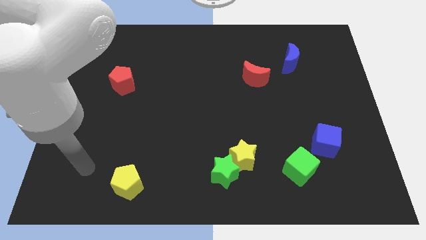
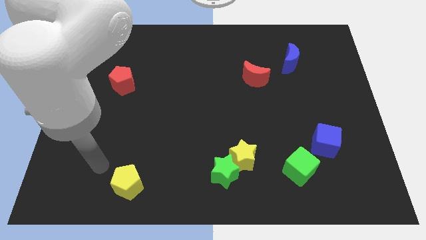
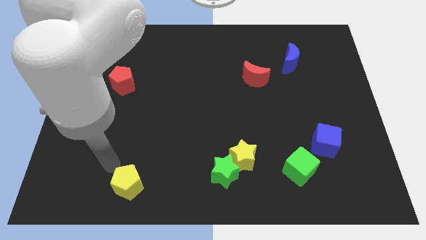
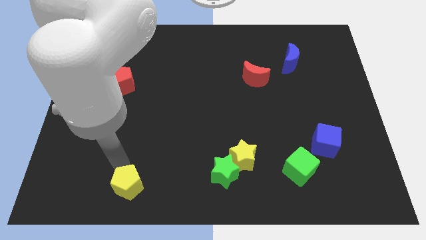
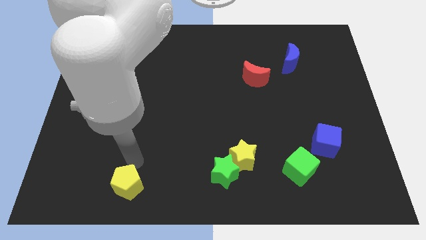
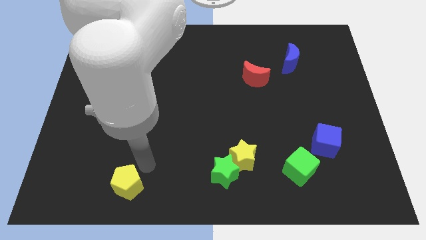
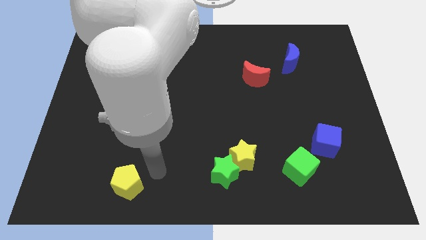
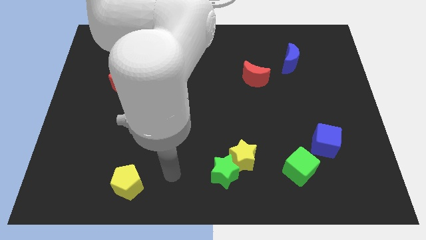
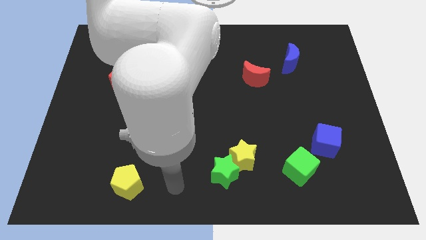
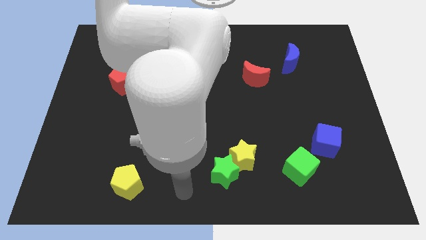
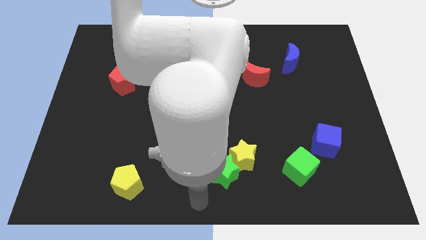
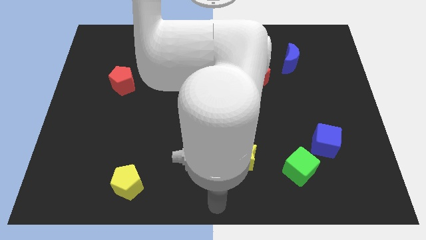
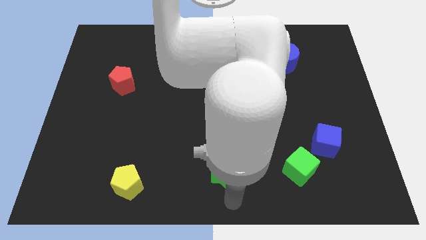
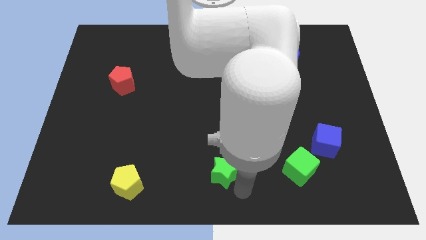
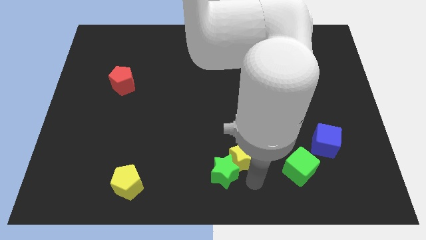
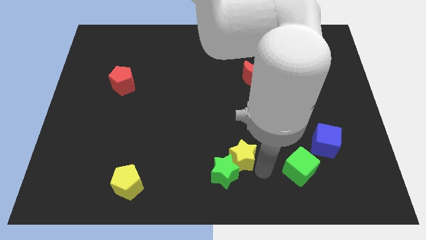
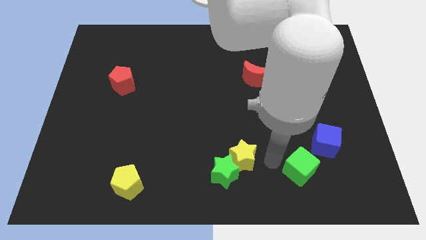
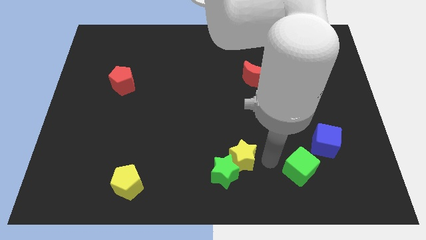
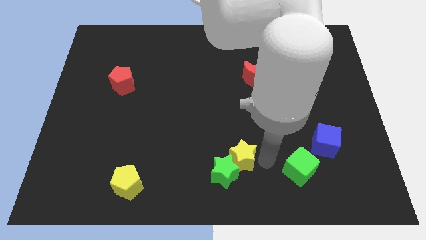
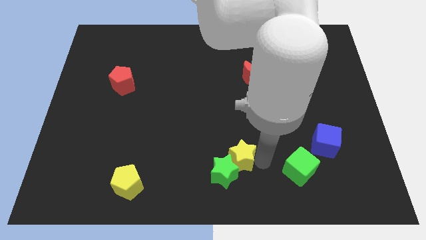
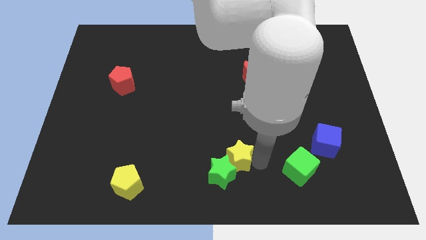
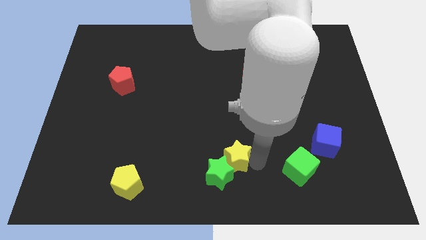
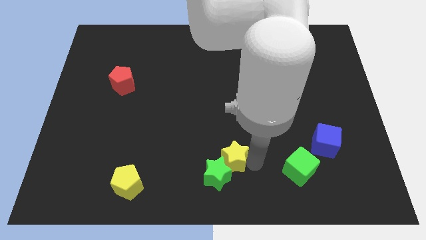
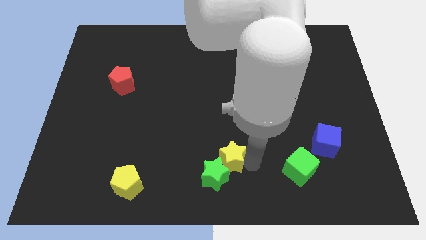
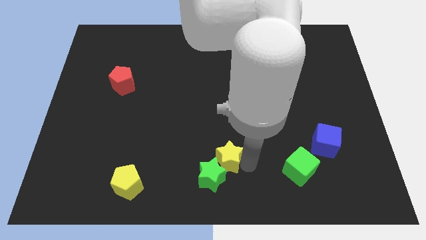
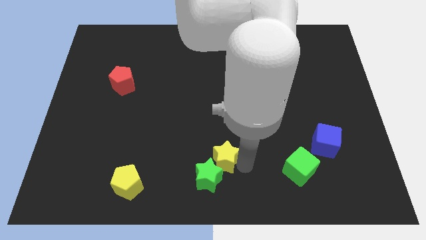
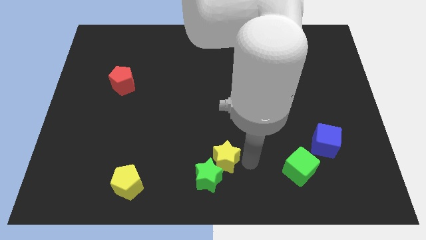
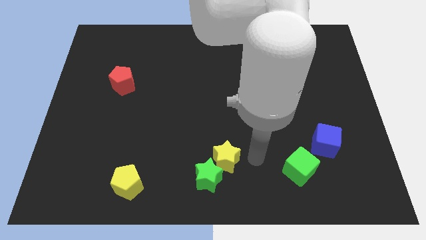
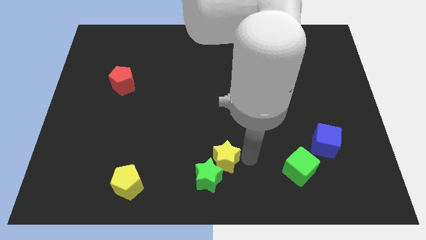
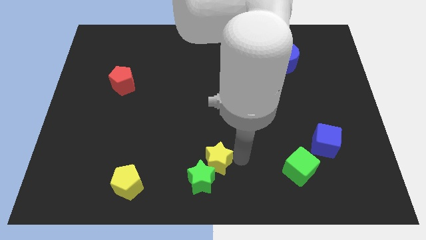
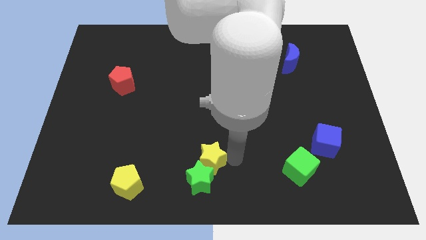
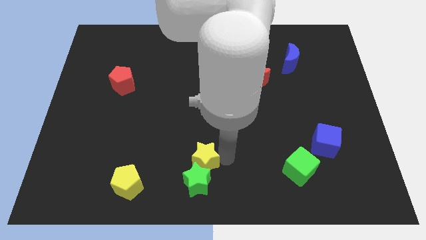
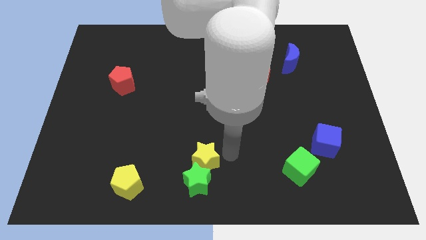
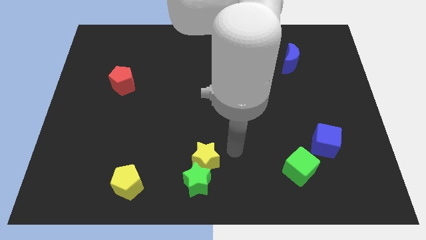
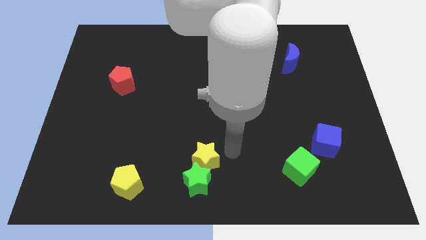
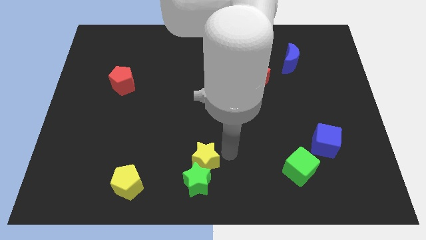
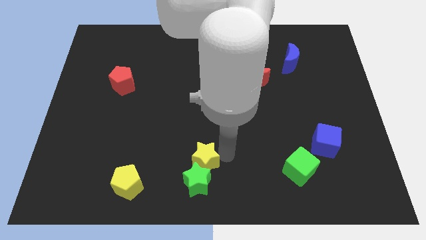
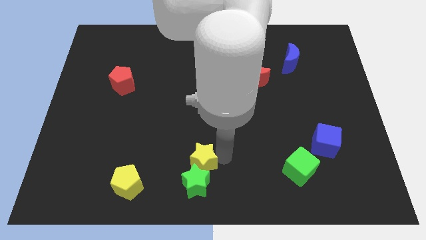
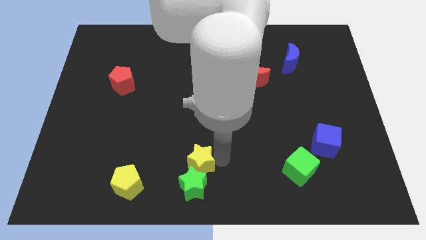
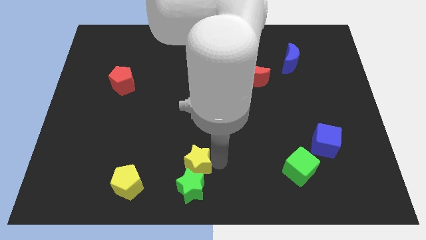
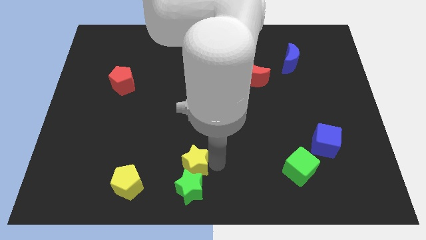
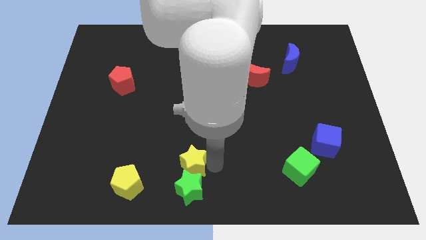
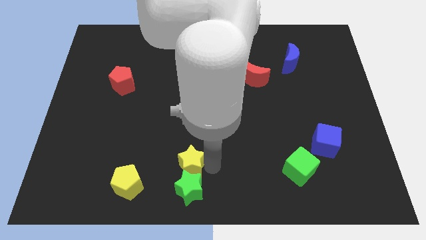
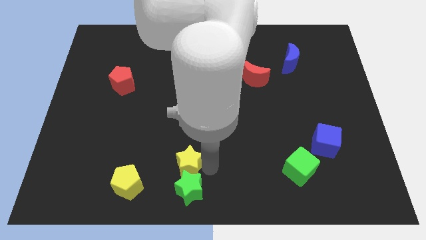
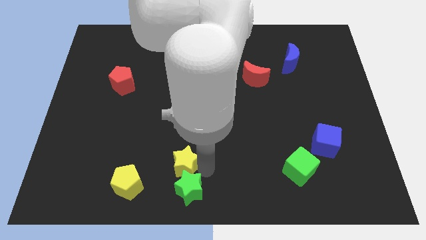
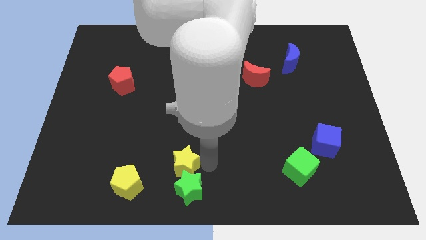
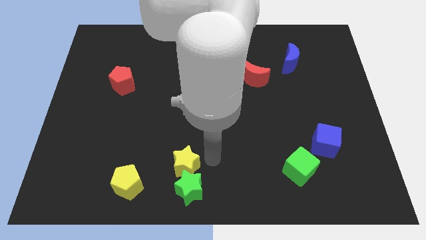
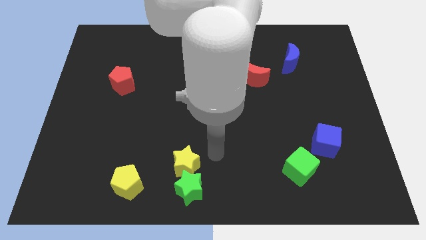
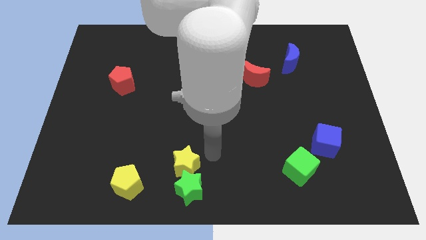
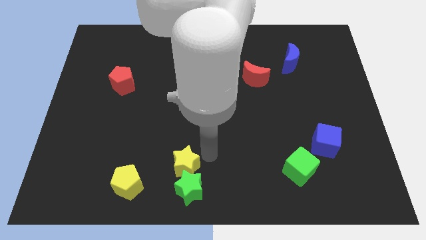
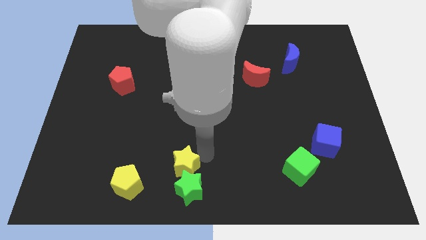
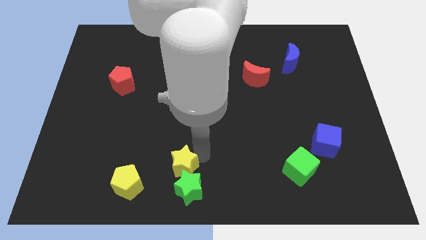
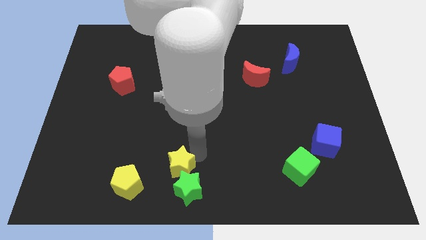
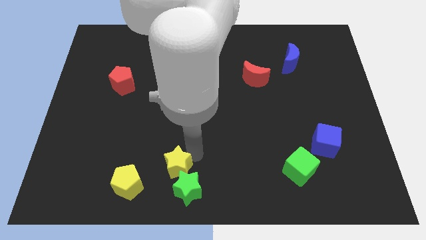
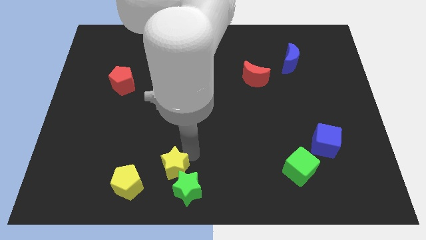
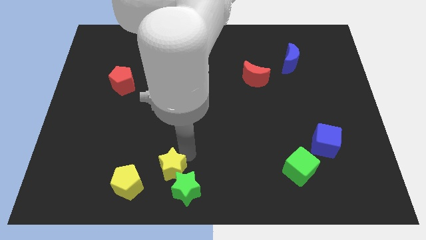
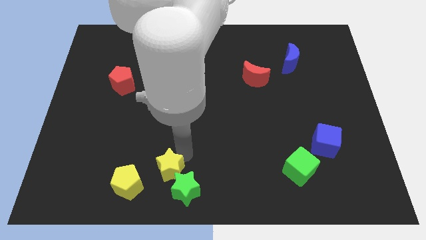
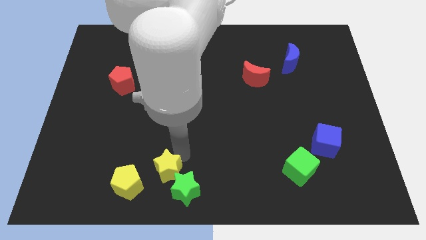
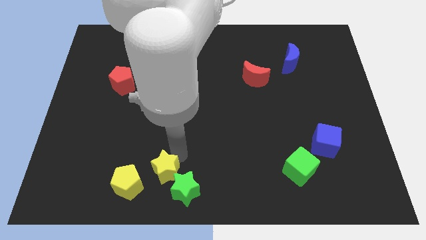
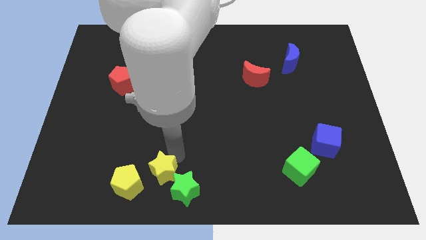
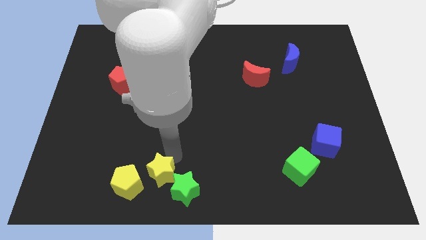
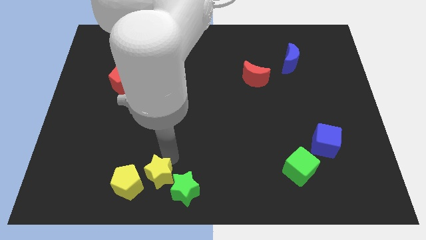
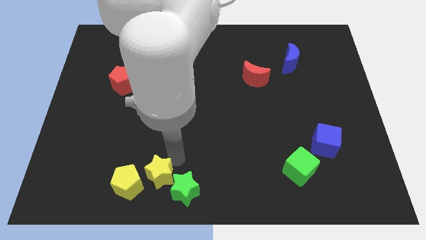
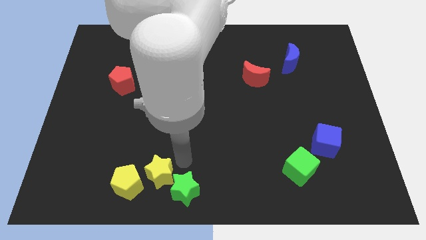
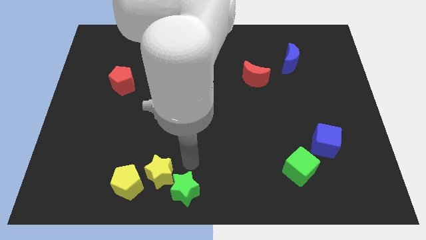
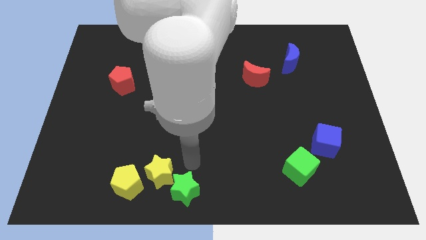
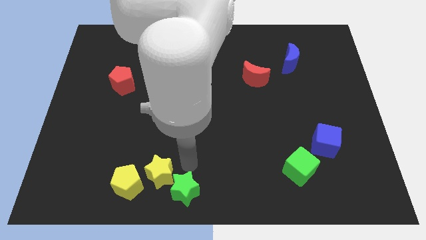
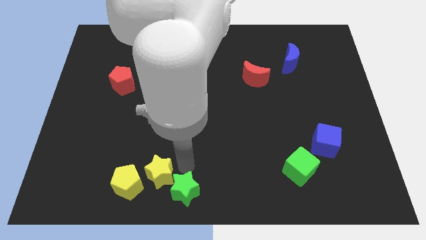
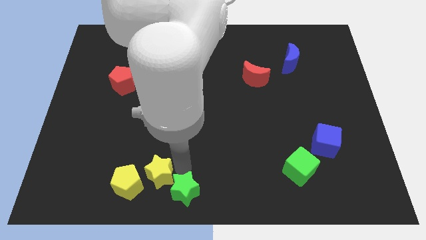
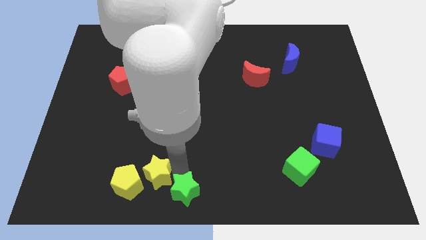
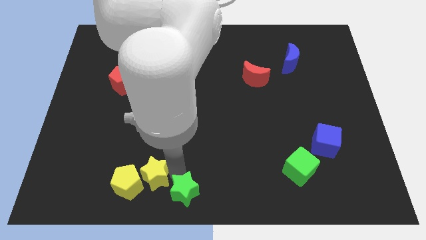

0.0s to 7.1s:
put the yellow star next to the yellow pentagon

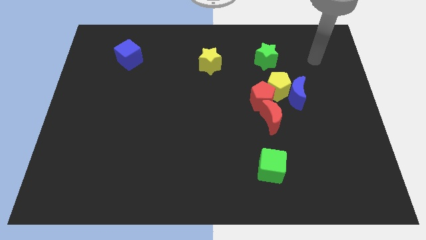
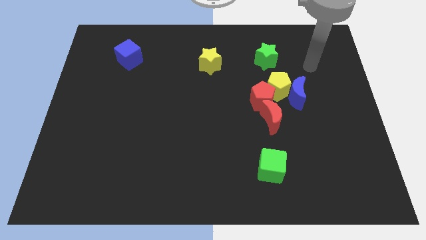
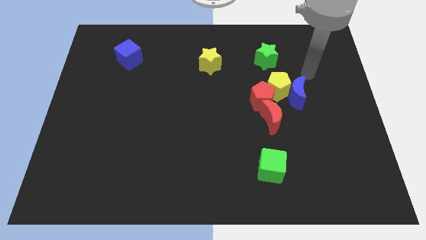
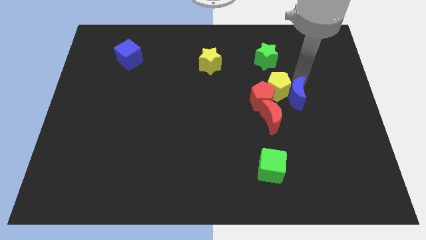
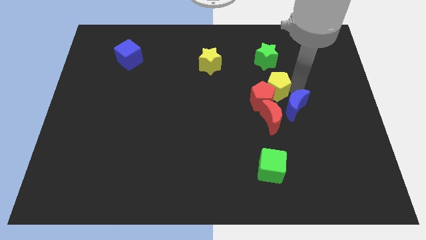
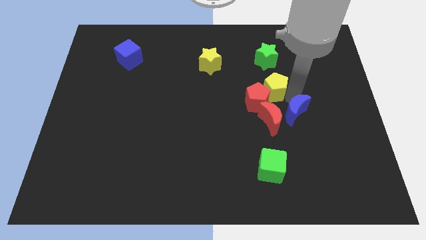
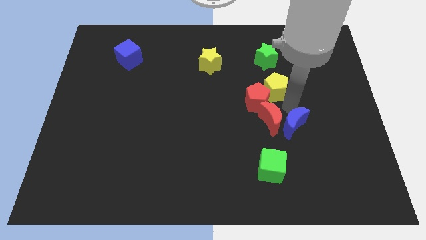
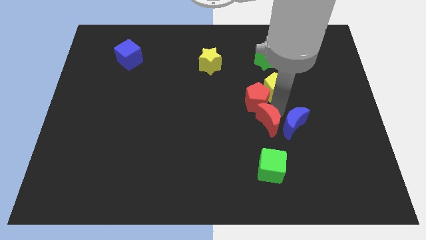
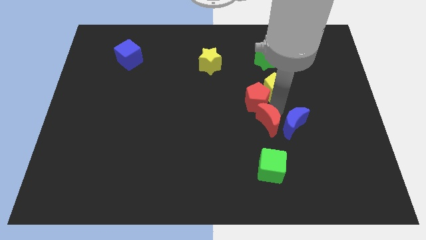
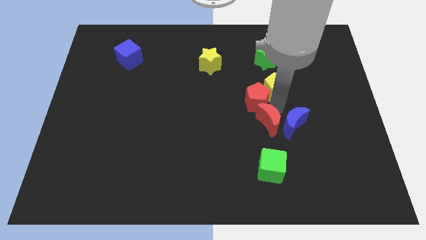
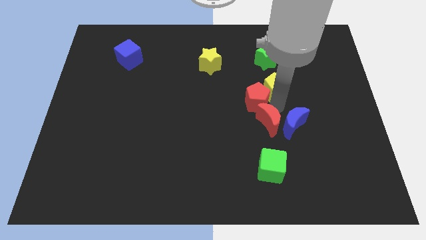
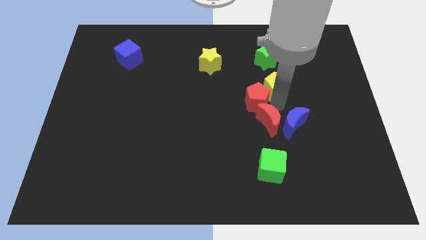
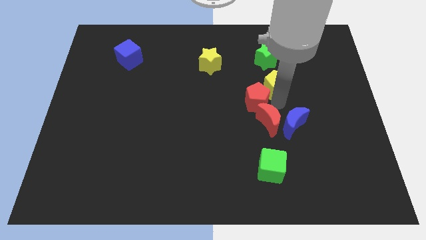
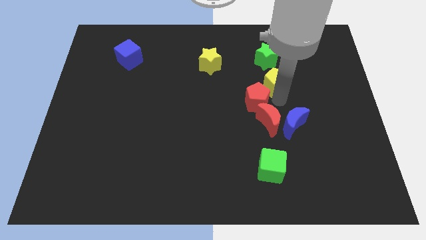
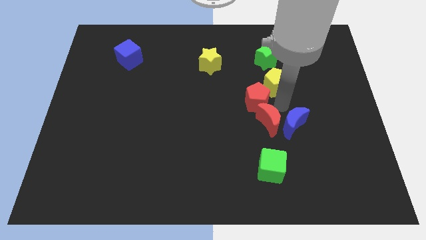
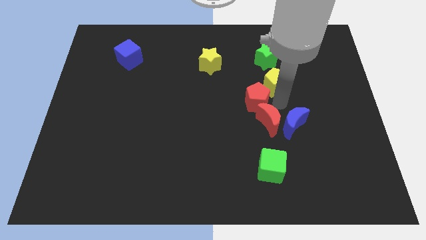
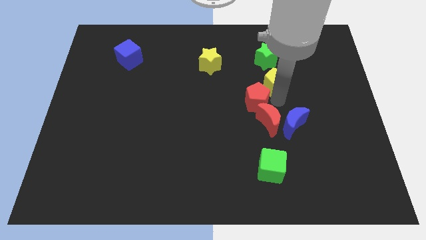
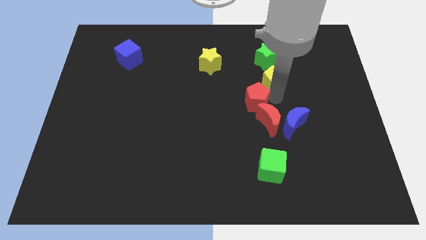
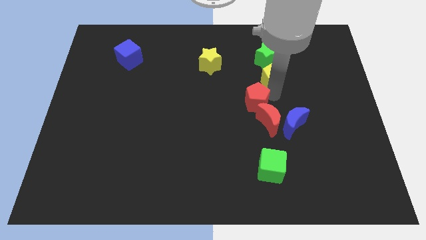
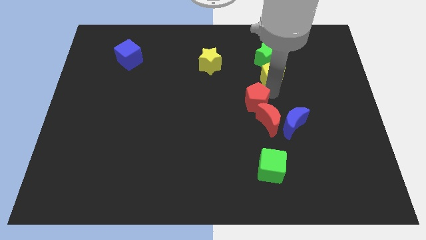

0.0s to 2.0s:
push the yellow pentagon close to the green star
